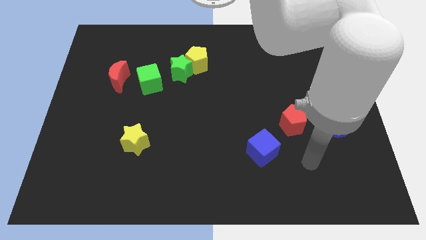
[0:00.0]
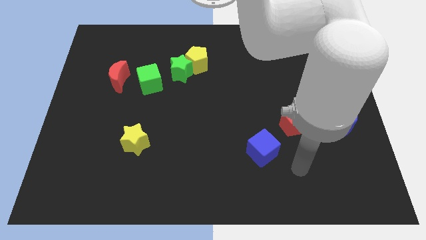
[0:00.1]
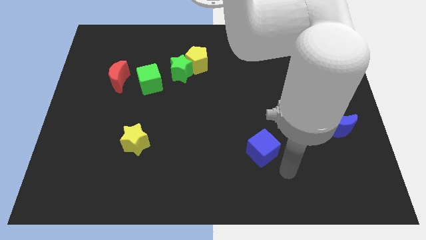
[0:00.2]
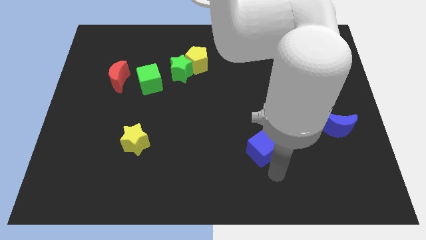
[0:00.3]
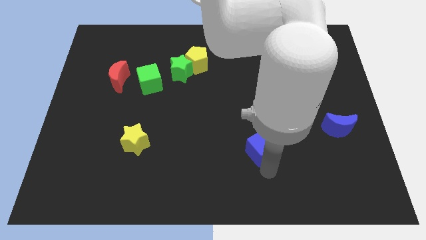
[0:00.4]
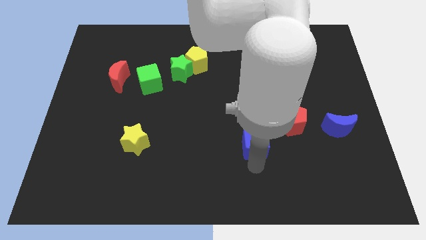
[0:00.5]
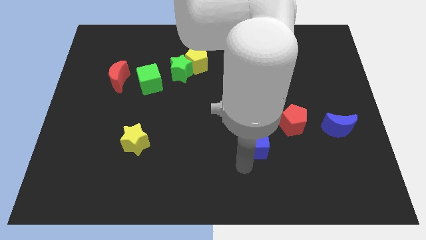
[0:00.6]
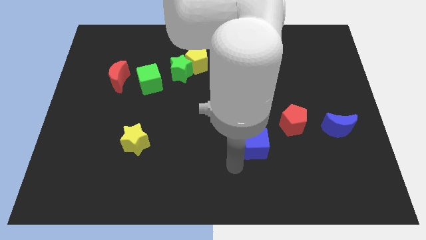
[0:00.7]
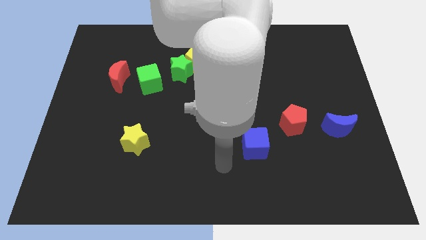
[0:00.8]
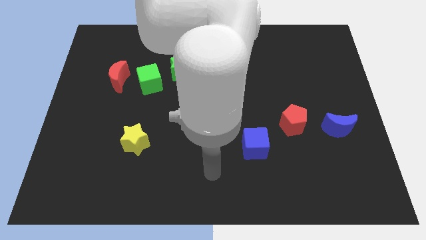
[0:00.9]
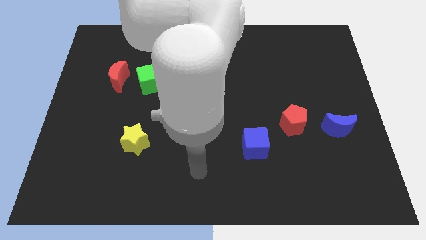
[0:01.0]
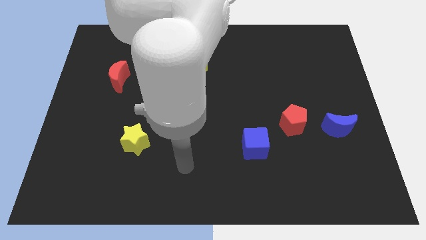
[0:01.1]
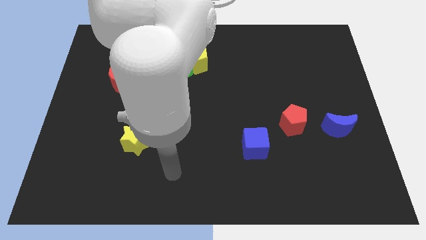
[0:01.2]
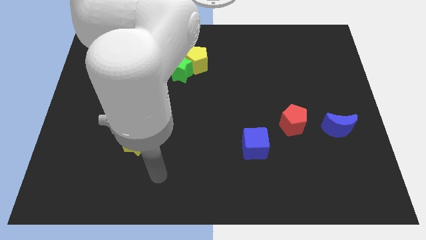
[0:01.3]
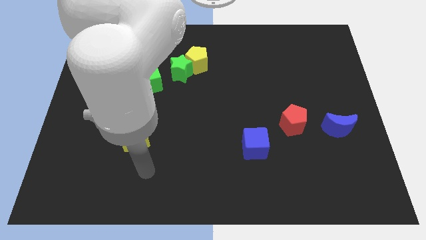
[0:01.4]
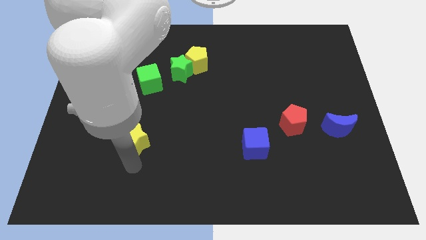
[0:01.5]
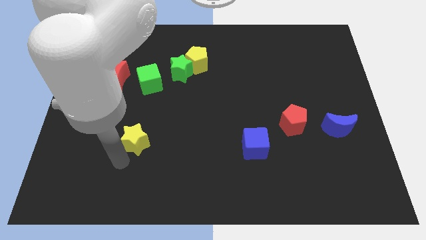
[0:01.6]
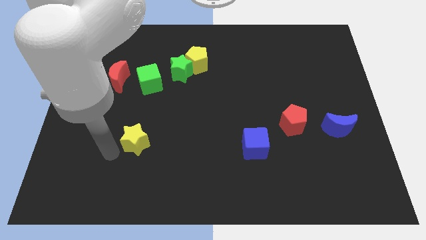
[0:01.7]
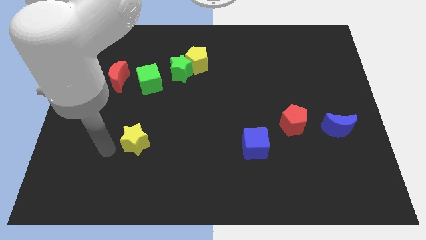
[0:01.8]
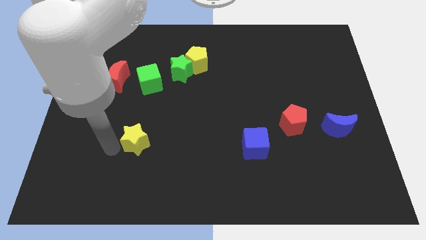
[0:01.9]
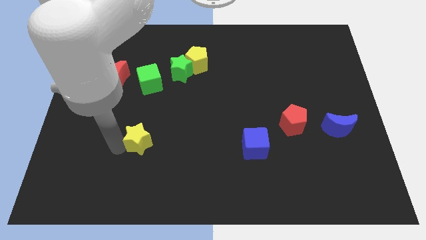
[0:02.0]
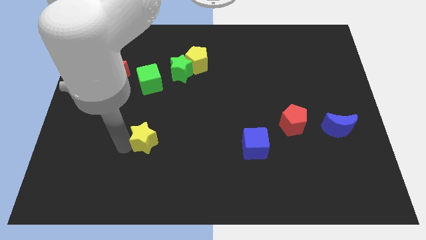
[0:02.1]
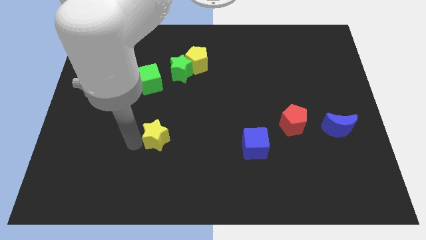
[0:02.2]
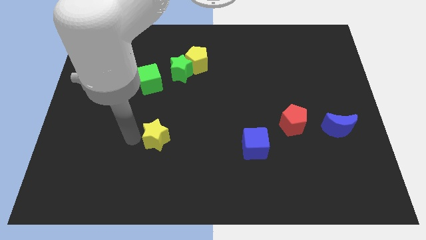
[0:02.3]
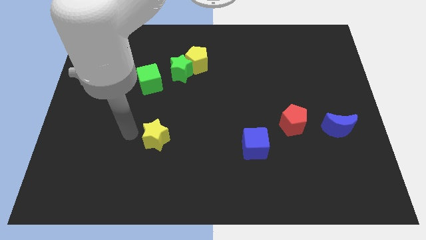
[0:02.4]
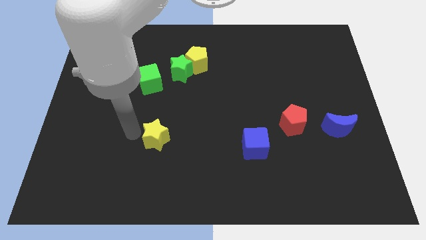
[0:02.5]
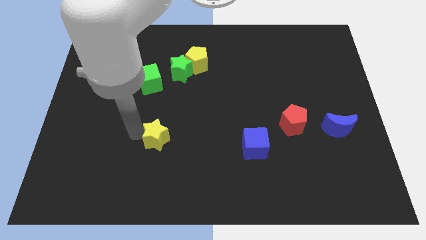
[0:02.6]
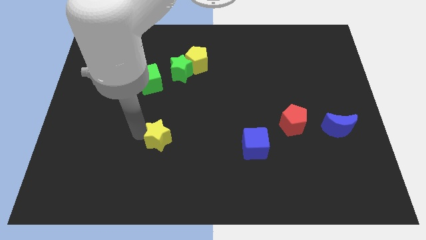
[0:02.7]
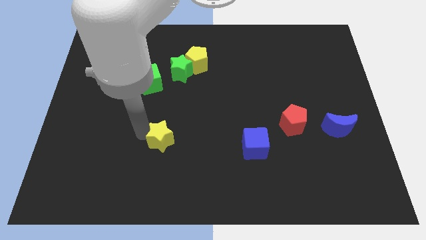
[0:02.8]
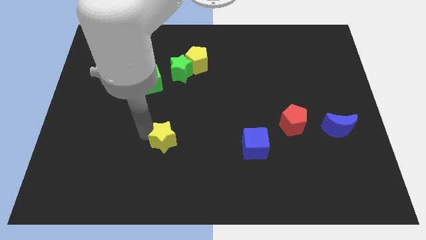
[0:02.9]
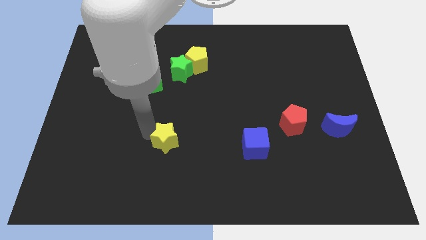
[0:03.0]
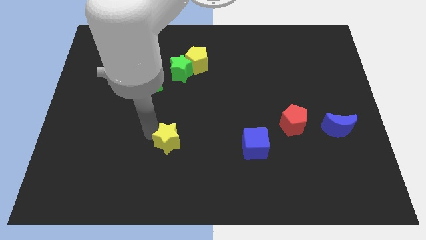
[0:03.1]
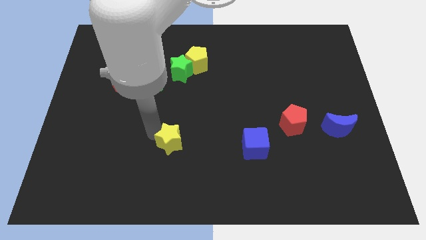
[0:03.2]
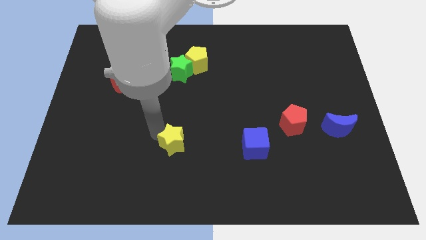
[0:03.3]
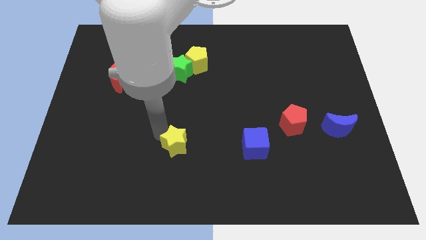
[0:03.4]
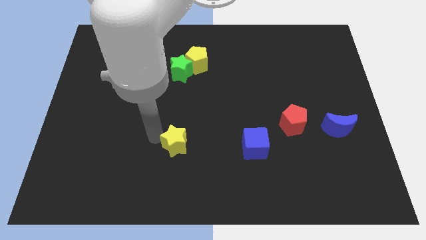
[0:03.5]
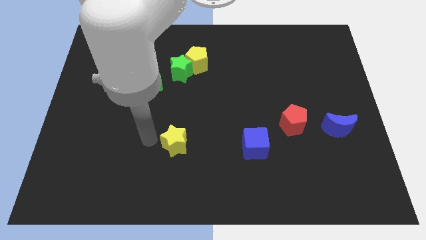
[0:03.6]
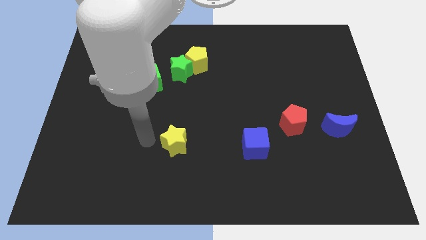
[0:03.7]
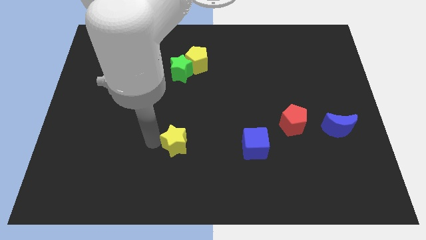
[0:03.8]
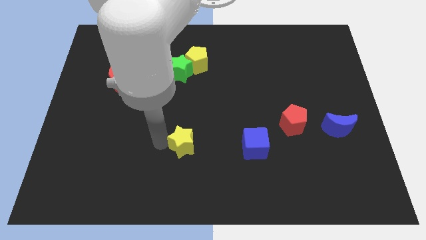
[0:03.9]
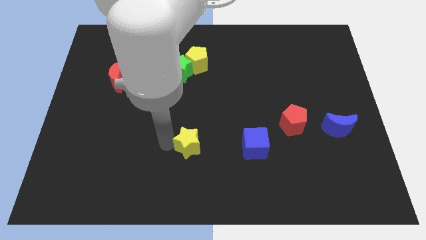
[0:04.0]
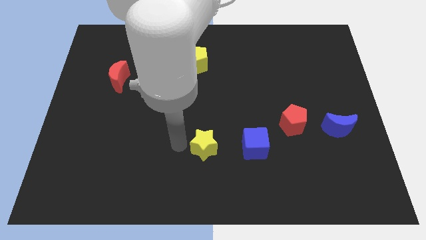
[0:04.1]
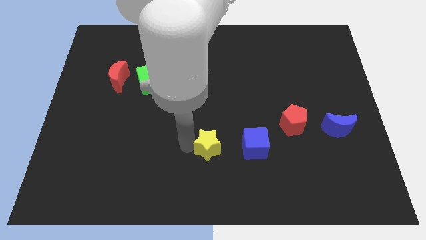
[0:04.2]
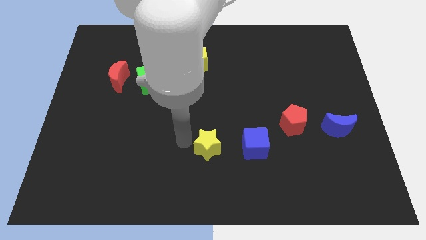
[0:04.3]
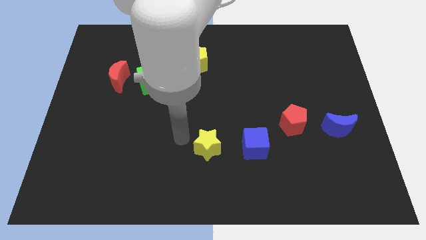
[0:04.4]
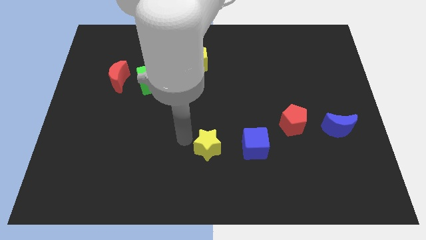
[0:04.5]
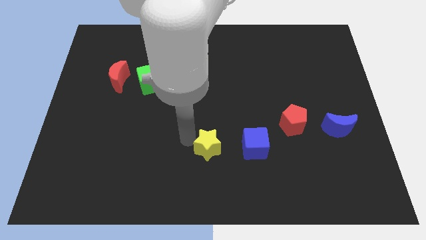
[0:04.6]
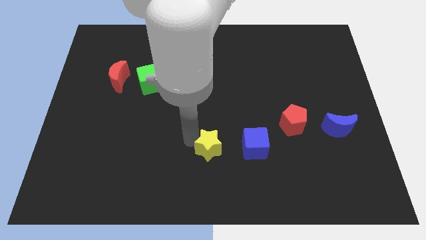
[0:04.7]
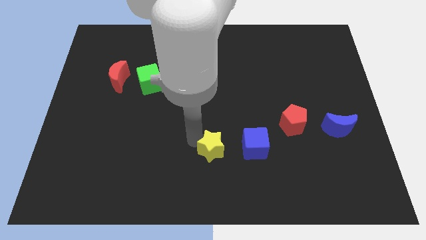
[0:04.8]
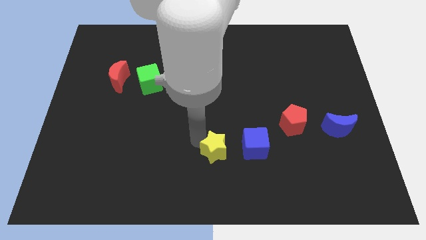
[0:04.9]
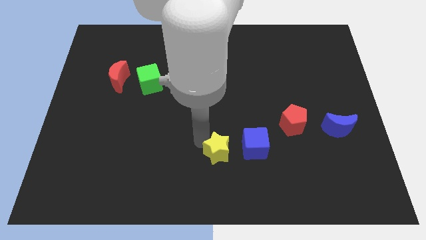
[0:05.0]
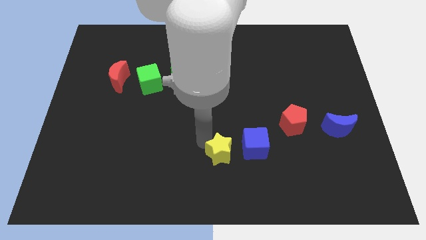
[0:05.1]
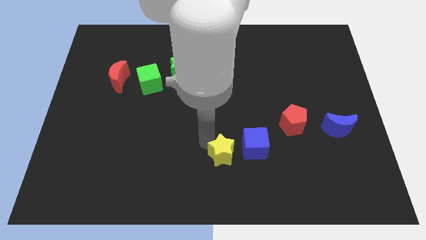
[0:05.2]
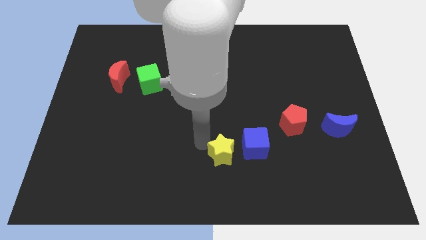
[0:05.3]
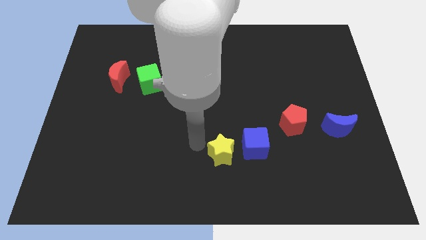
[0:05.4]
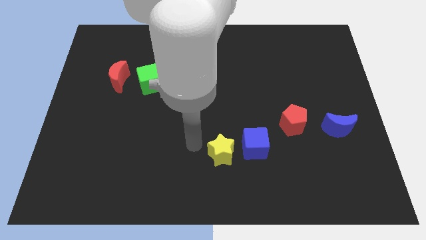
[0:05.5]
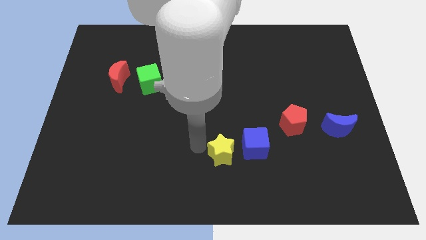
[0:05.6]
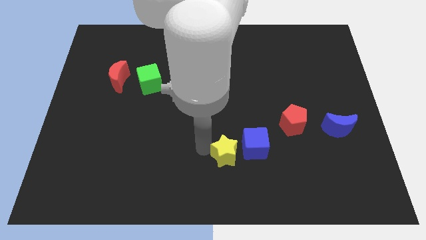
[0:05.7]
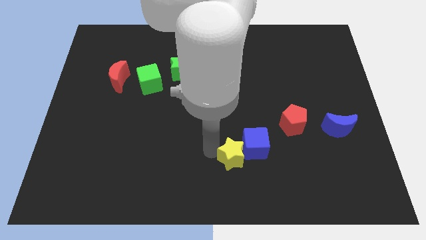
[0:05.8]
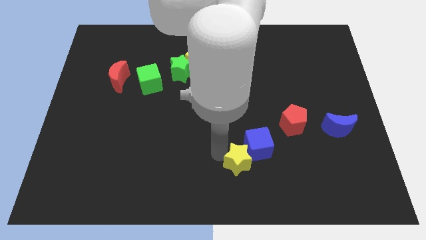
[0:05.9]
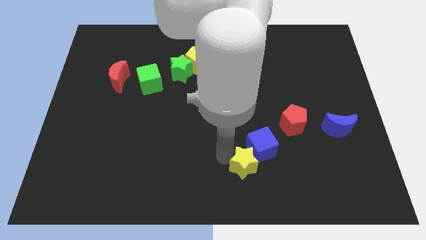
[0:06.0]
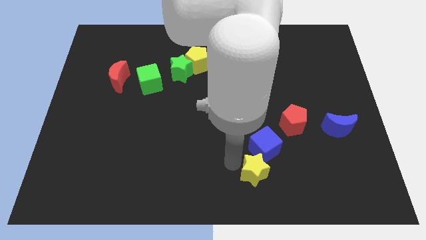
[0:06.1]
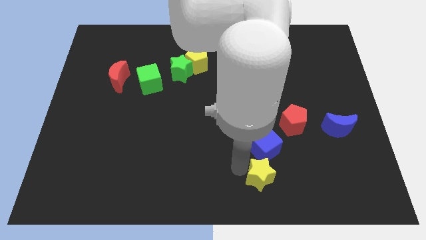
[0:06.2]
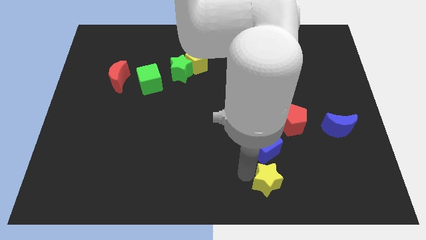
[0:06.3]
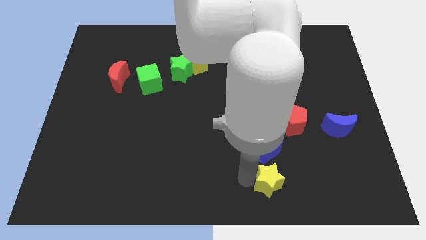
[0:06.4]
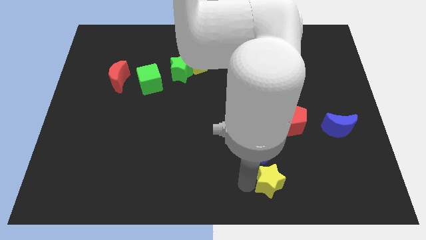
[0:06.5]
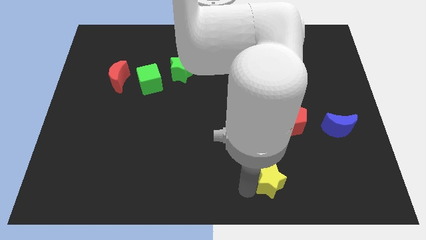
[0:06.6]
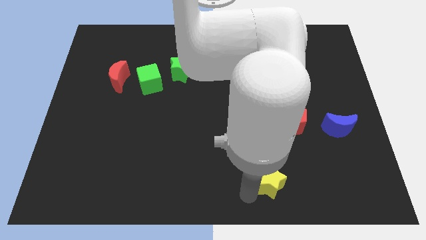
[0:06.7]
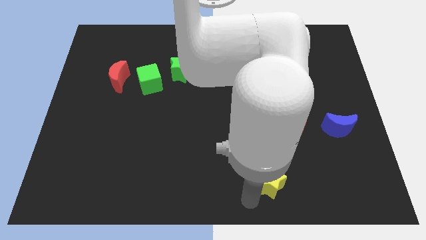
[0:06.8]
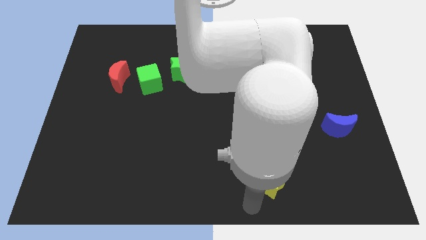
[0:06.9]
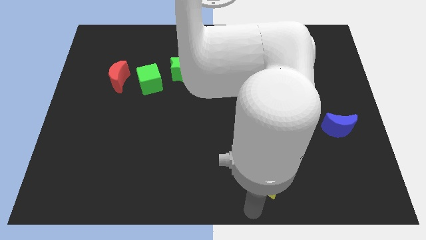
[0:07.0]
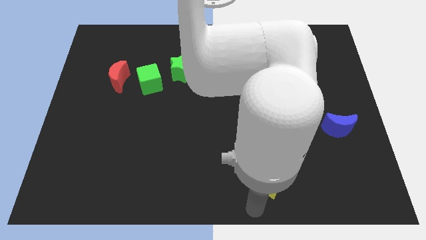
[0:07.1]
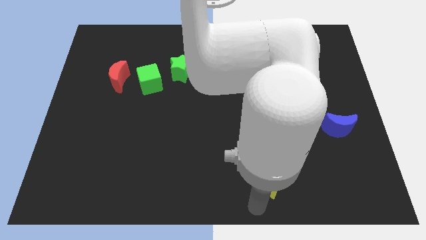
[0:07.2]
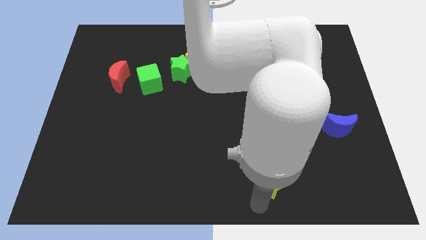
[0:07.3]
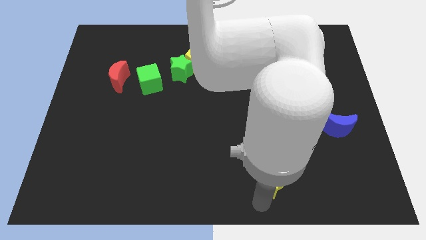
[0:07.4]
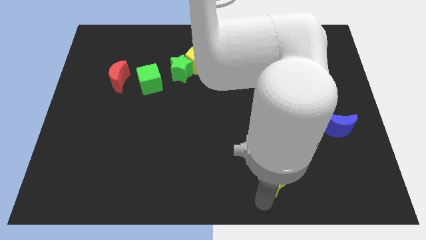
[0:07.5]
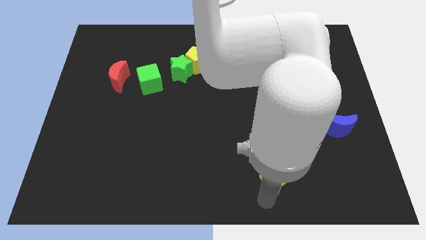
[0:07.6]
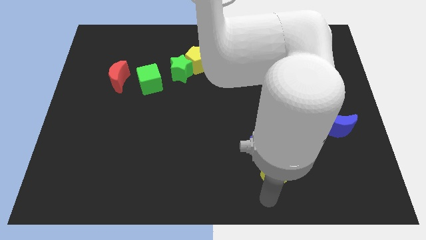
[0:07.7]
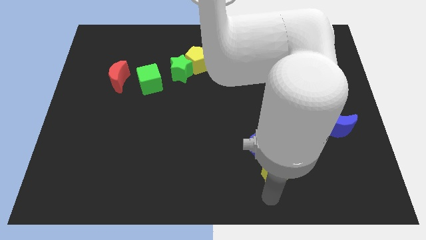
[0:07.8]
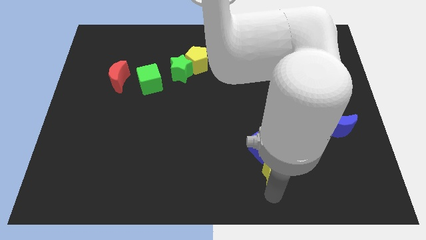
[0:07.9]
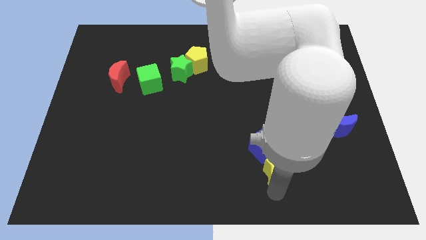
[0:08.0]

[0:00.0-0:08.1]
slide the yellow star to the bottom side of the red pentagon
